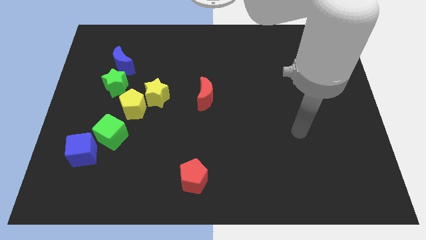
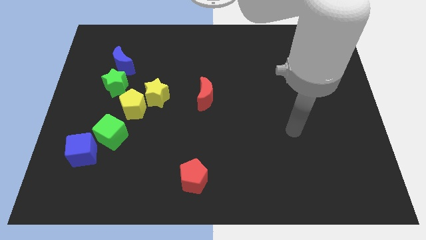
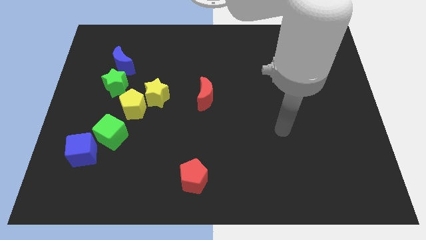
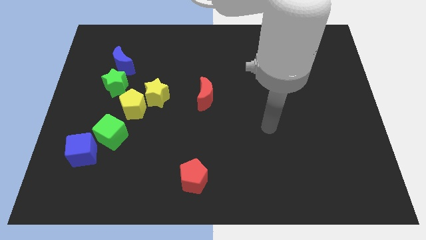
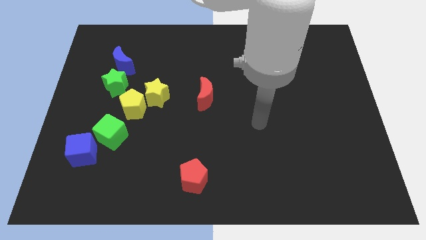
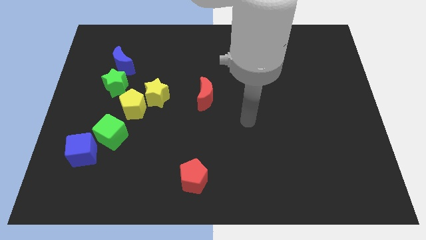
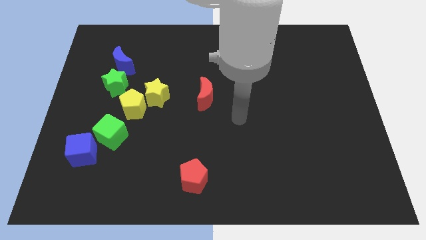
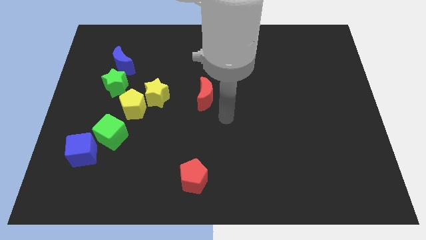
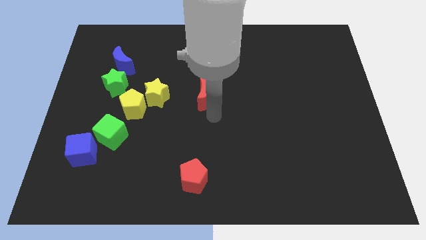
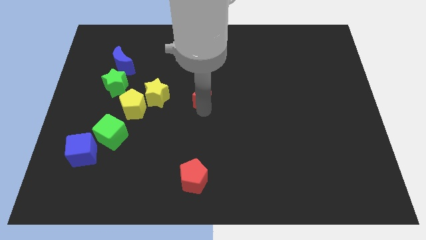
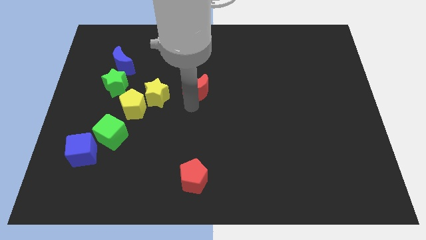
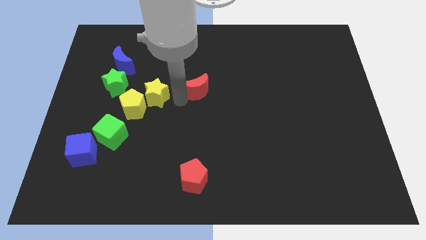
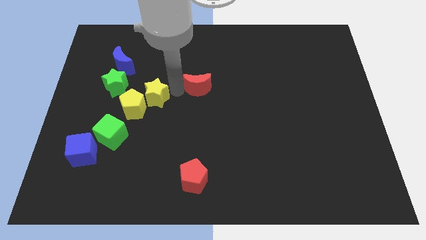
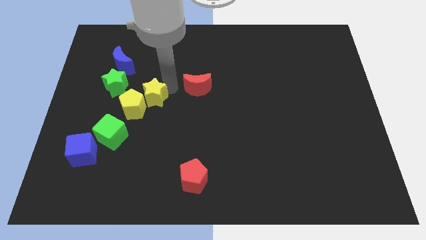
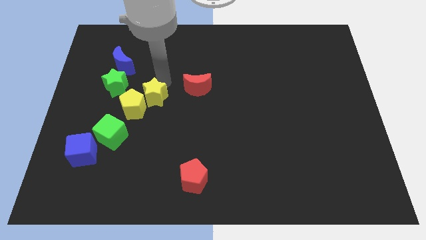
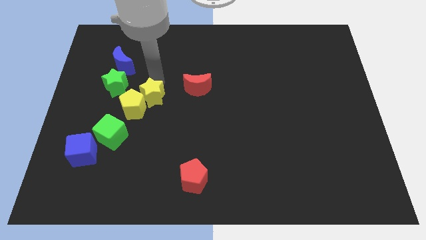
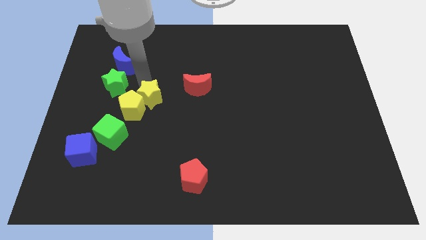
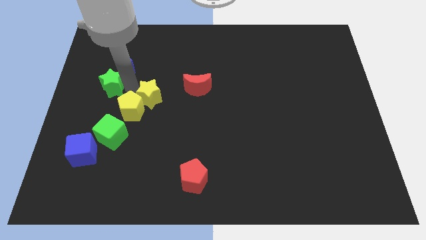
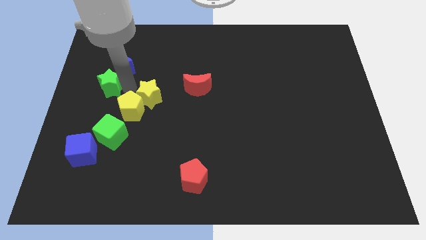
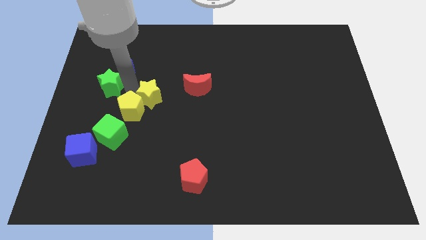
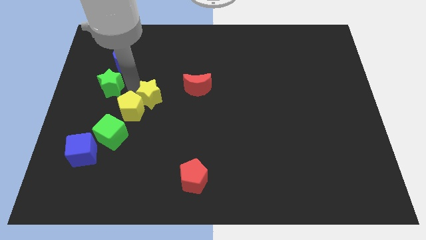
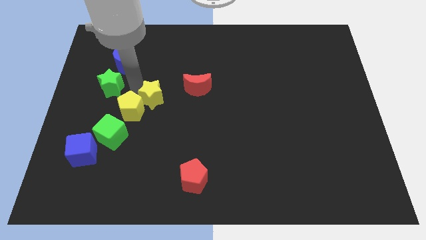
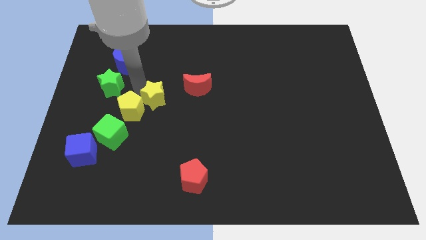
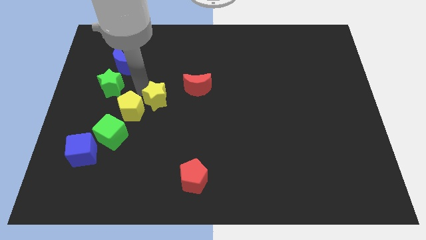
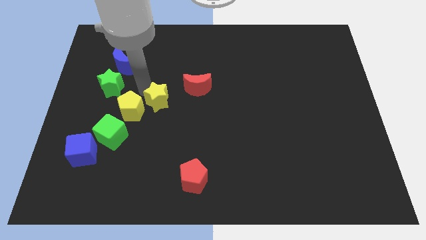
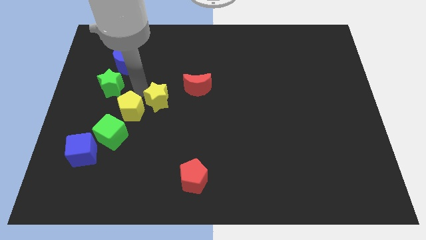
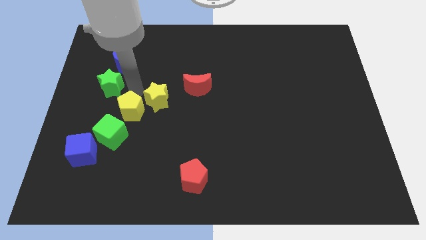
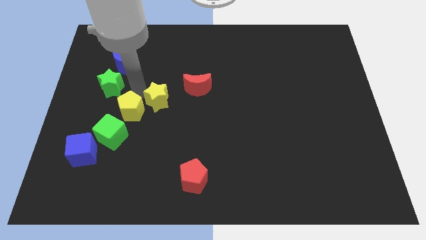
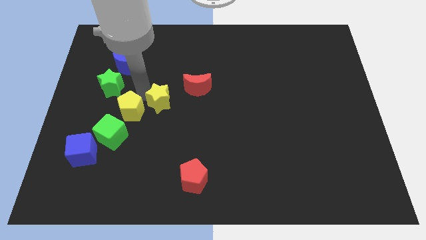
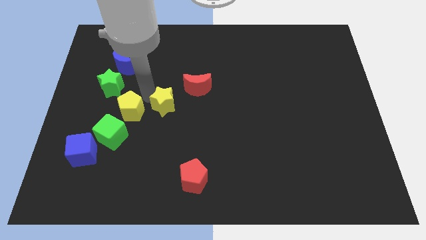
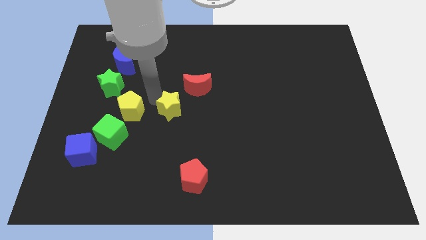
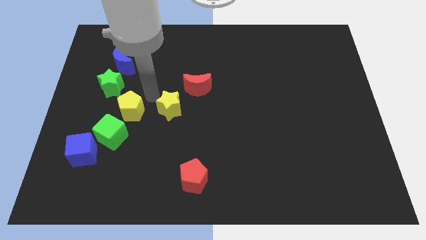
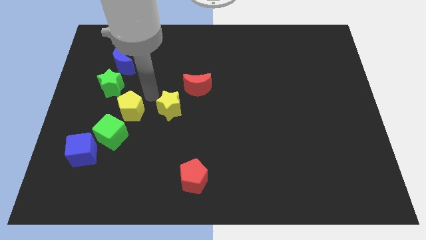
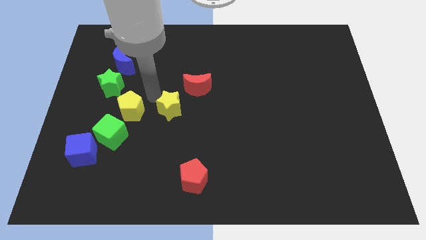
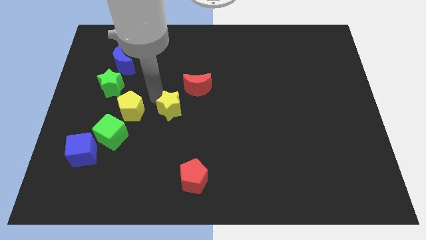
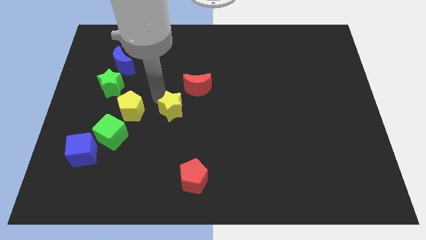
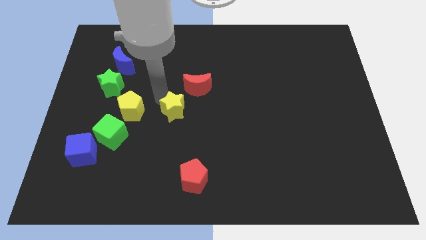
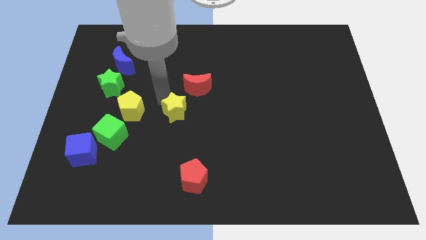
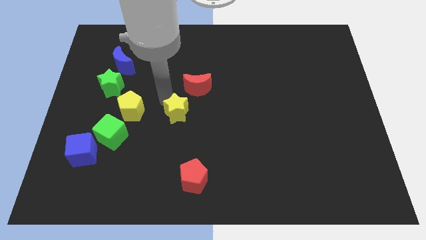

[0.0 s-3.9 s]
slightly push the yellow star downwards and to the right diagonally

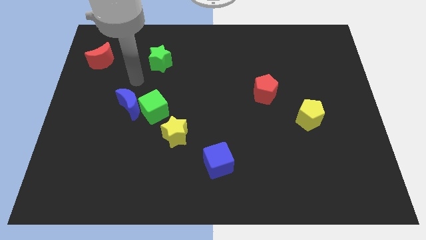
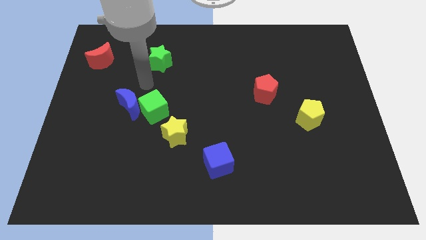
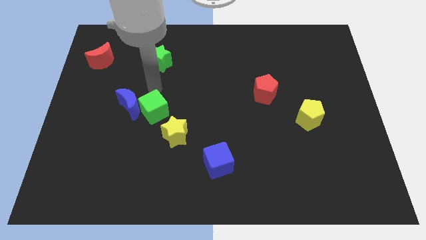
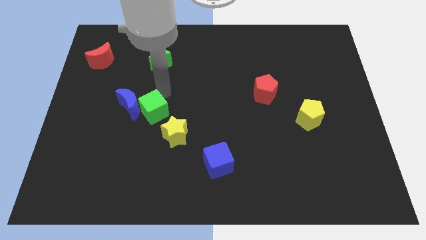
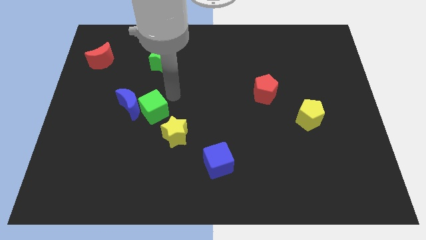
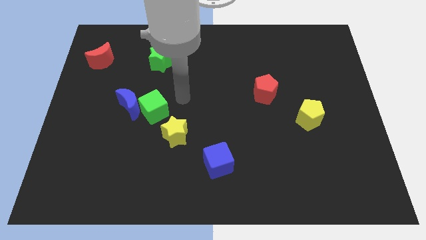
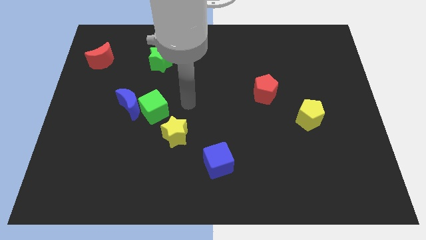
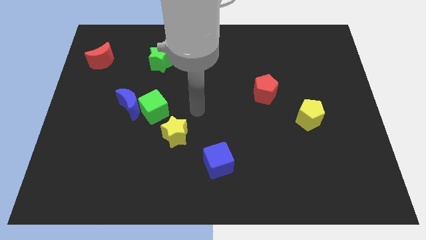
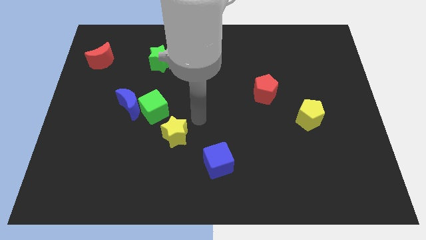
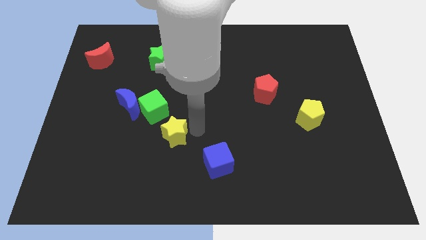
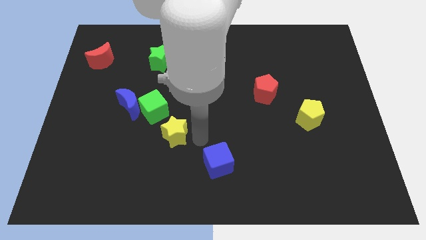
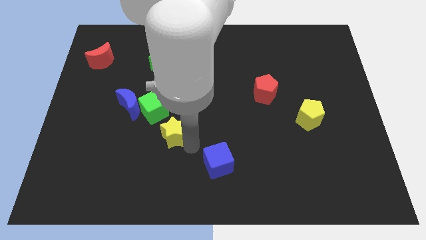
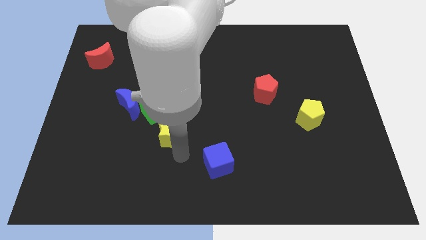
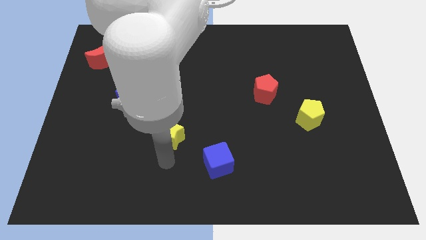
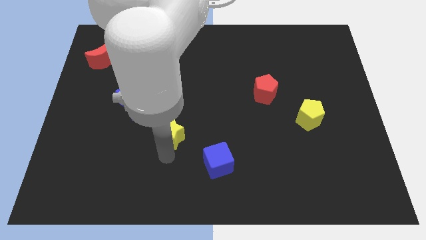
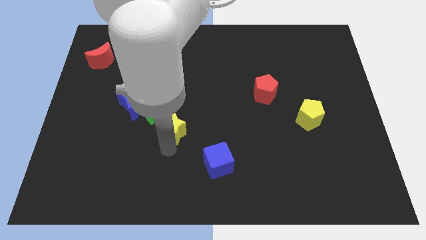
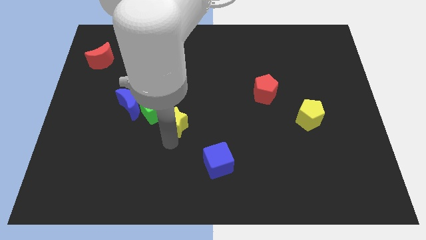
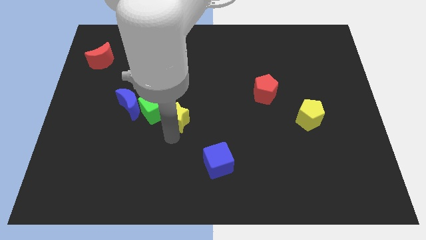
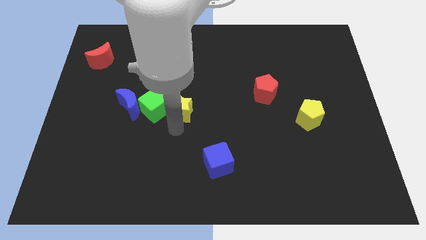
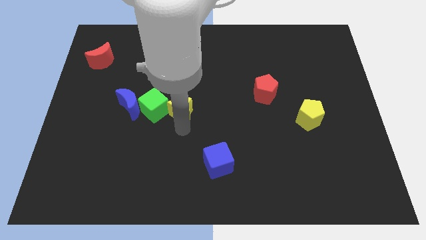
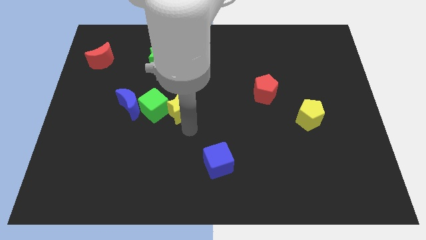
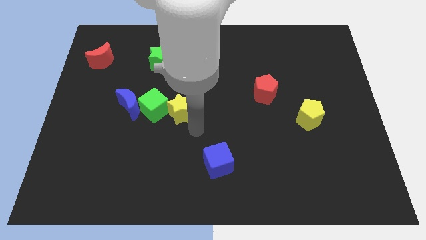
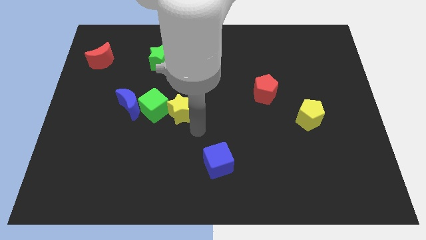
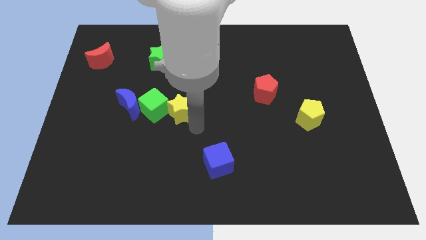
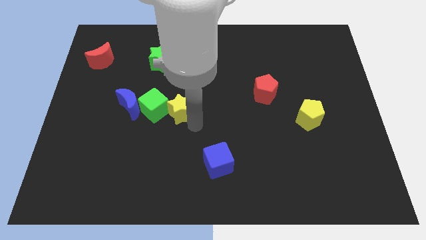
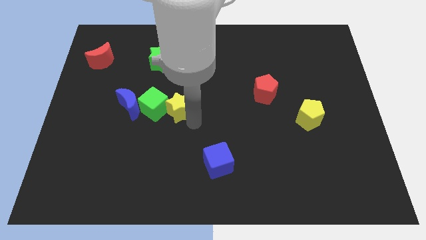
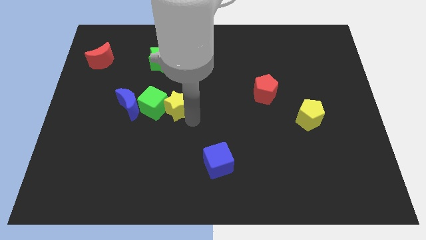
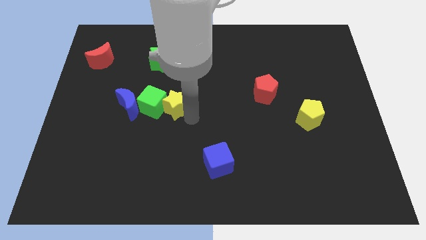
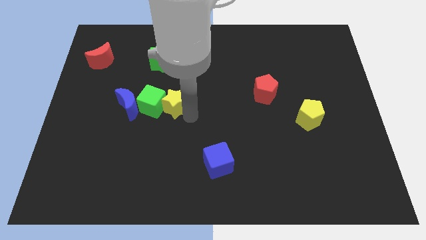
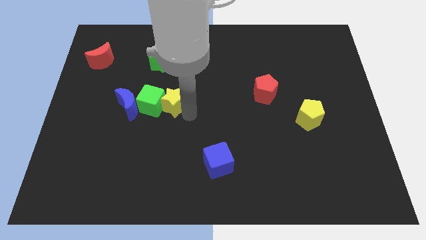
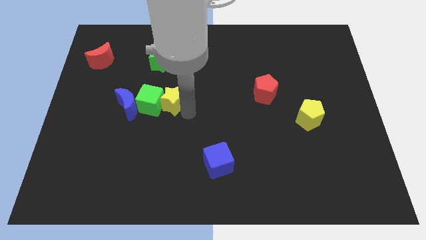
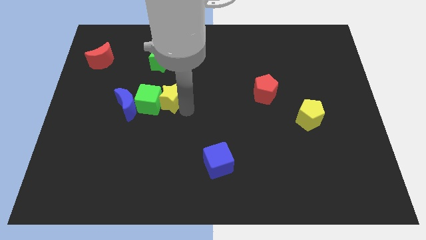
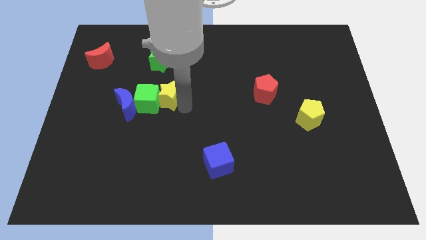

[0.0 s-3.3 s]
push the yellow star a little bit upwards and then left

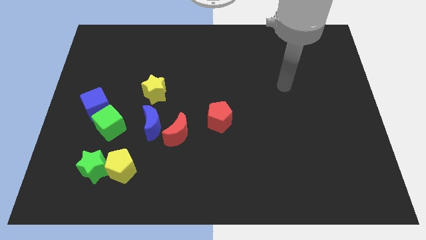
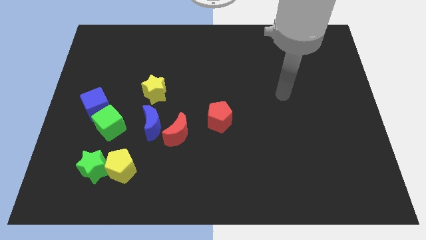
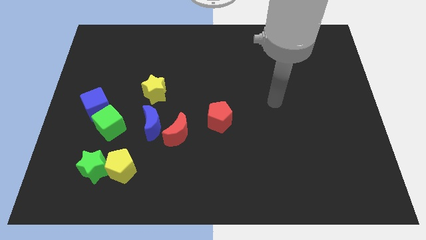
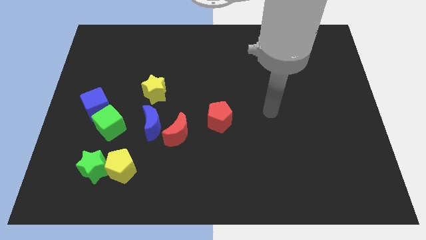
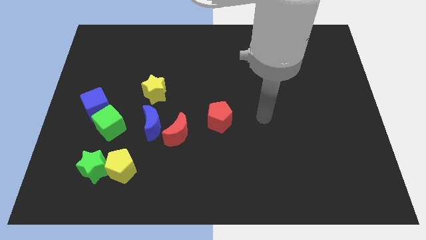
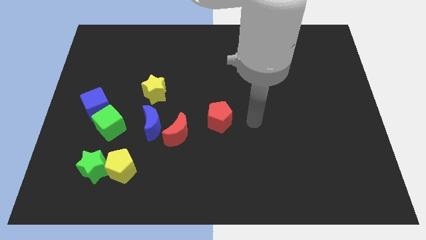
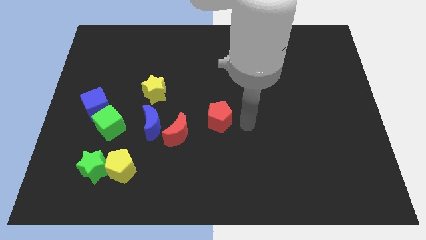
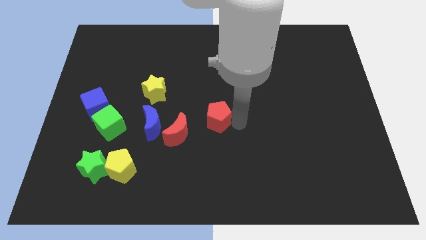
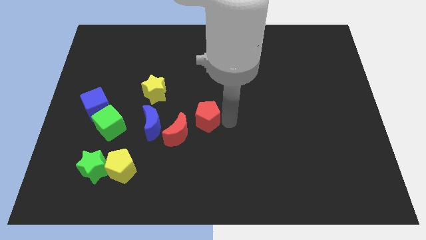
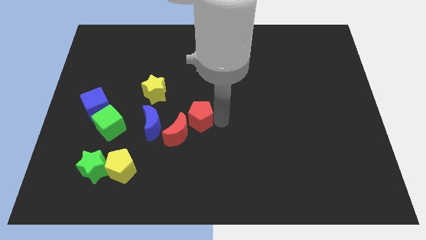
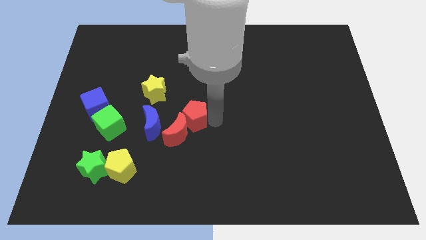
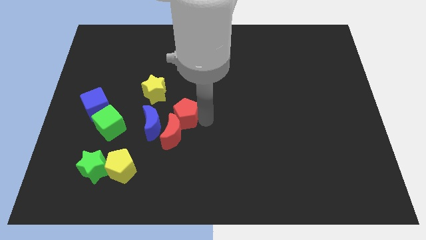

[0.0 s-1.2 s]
move the red pentagon a bit left
